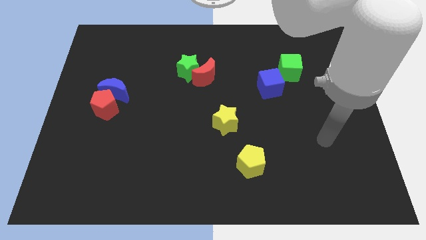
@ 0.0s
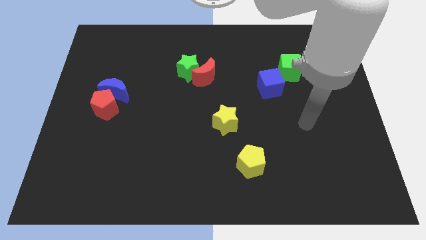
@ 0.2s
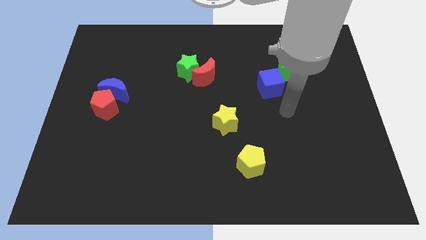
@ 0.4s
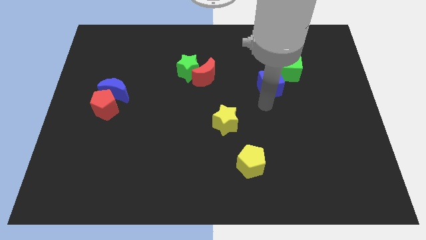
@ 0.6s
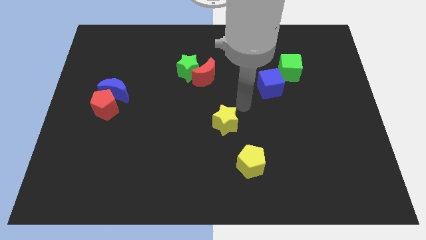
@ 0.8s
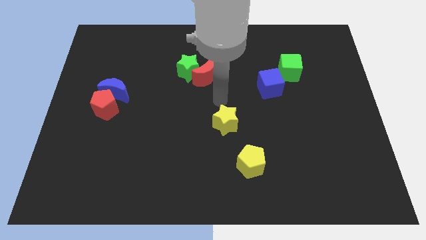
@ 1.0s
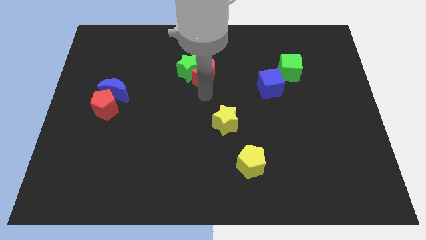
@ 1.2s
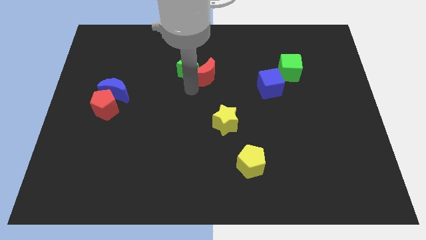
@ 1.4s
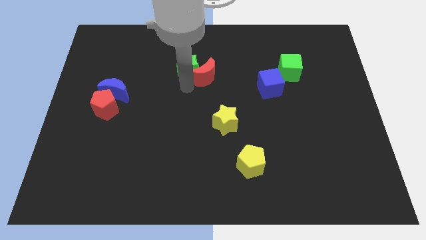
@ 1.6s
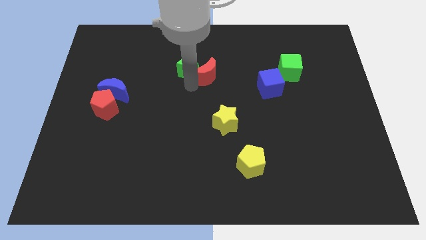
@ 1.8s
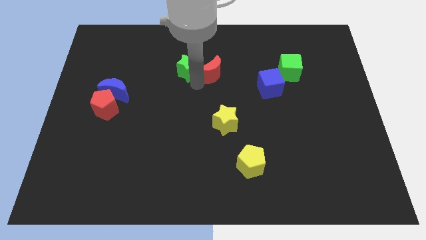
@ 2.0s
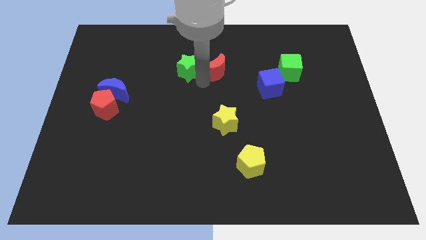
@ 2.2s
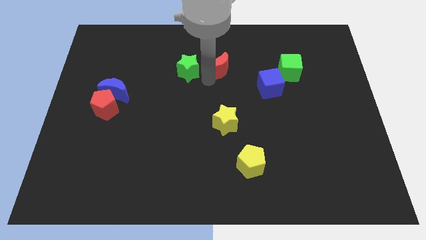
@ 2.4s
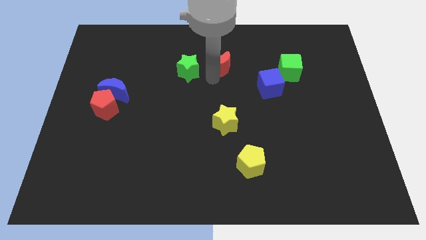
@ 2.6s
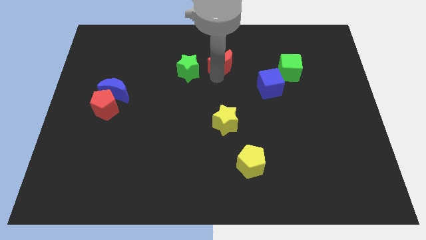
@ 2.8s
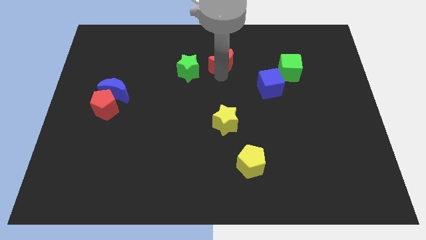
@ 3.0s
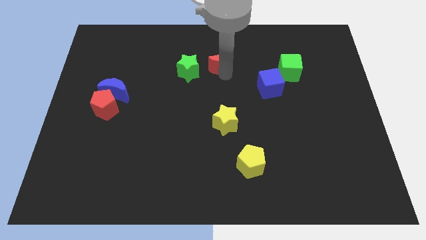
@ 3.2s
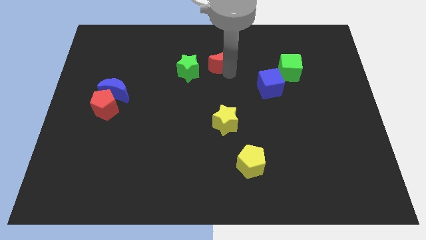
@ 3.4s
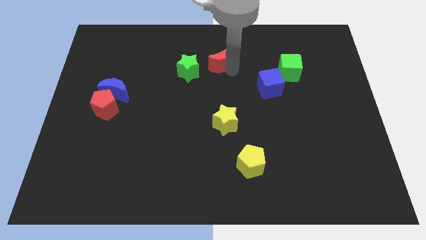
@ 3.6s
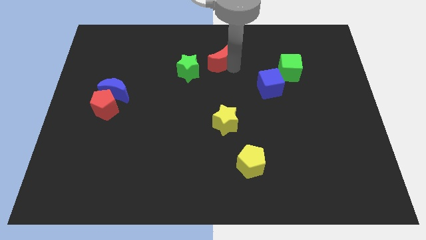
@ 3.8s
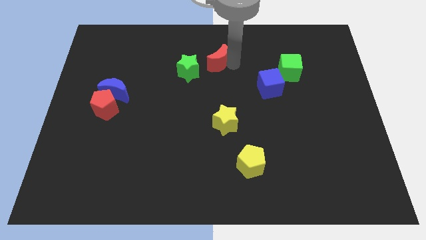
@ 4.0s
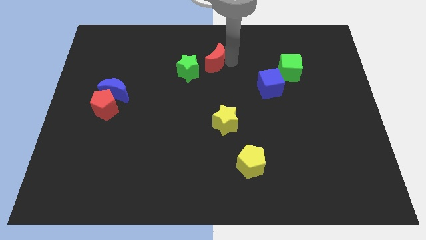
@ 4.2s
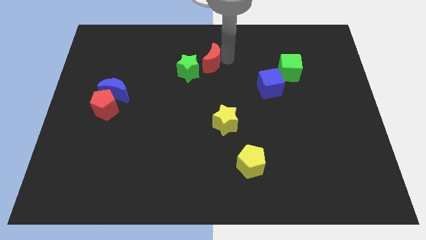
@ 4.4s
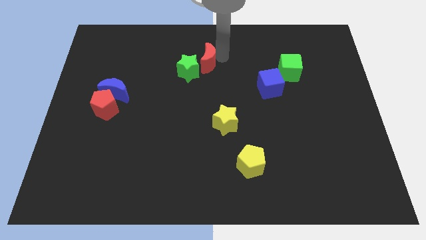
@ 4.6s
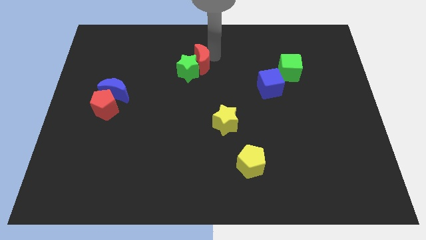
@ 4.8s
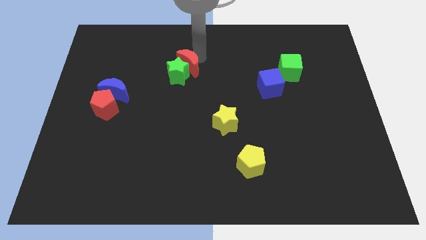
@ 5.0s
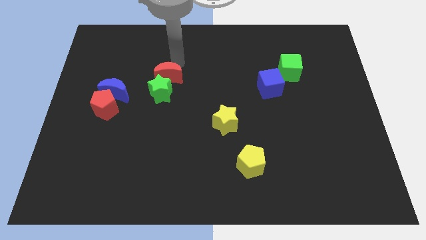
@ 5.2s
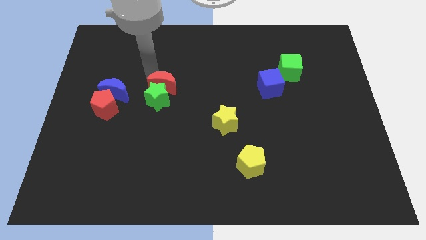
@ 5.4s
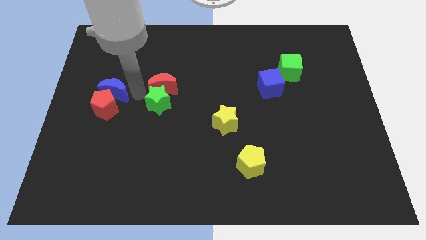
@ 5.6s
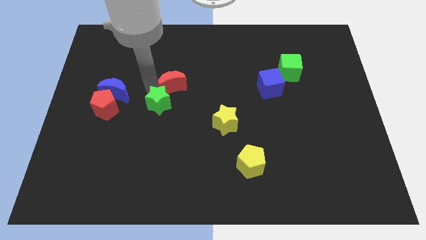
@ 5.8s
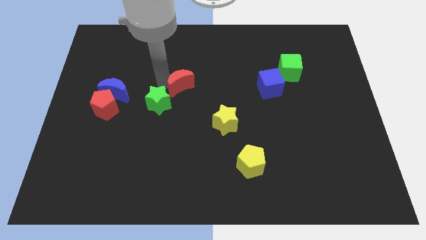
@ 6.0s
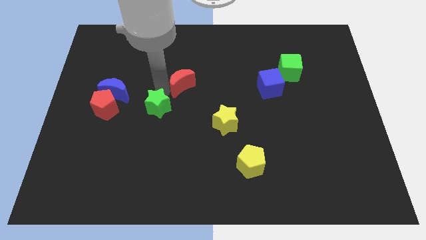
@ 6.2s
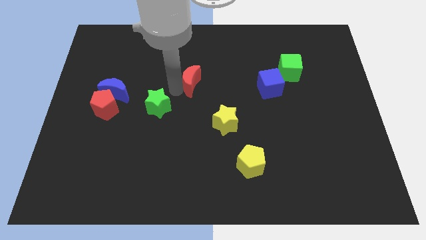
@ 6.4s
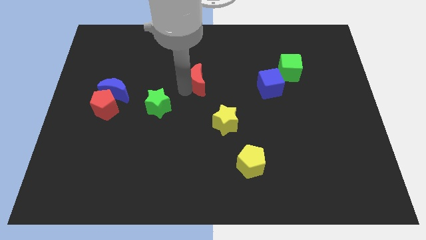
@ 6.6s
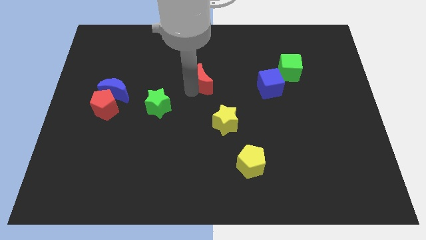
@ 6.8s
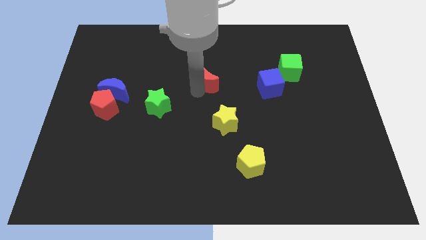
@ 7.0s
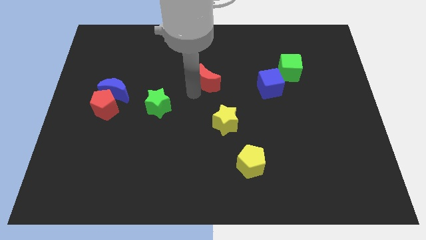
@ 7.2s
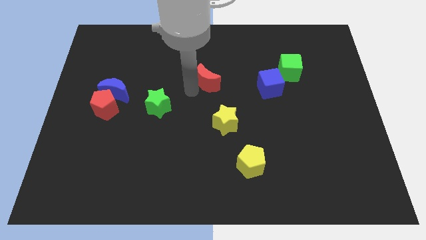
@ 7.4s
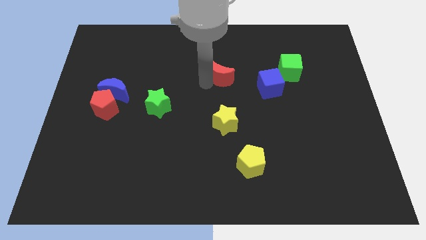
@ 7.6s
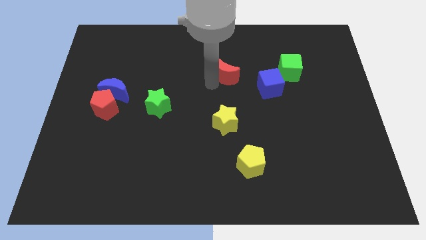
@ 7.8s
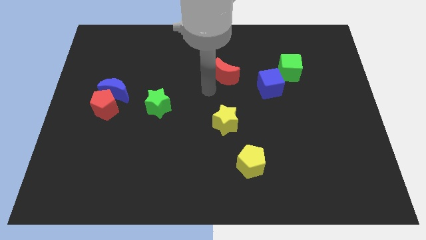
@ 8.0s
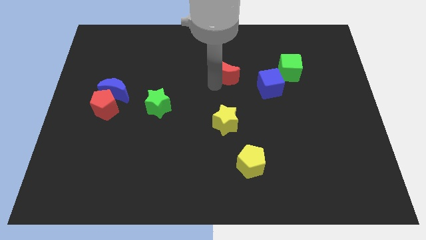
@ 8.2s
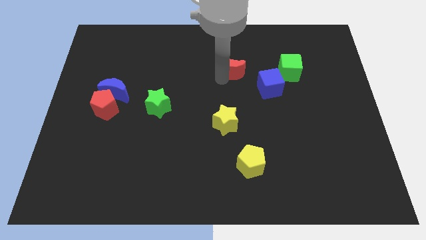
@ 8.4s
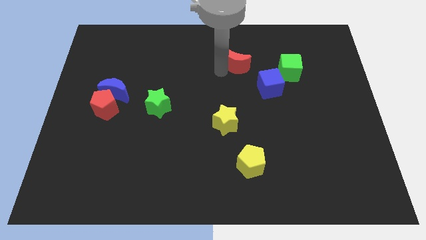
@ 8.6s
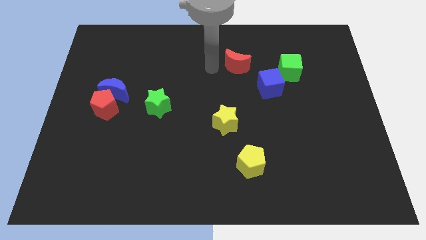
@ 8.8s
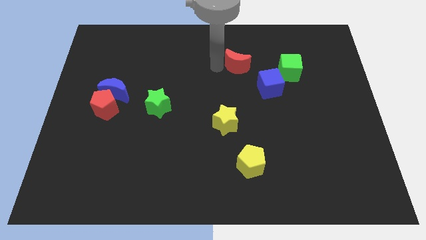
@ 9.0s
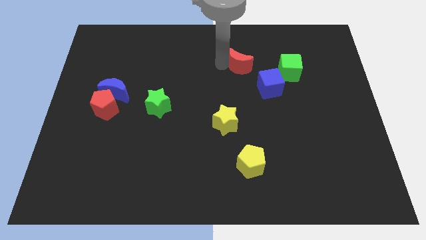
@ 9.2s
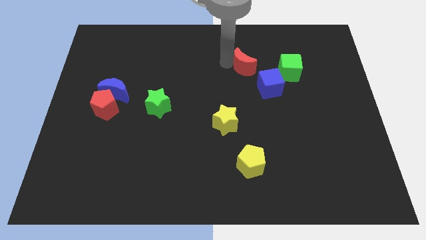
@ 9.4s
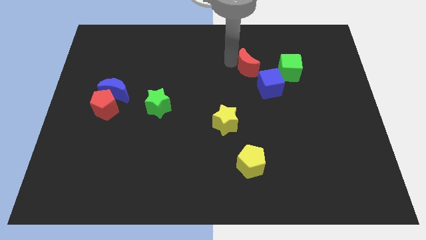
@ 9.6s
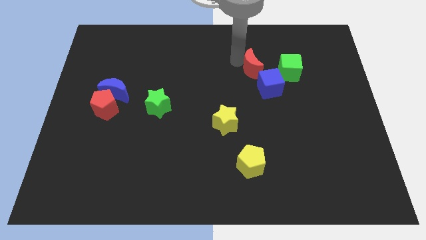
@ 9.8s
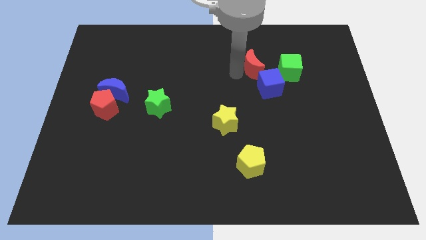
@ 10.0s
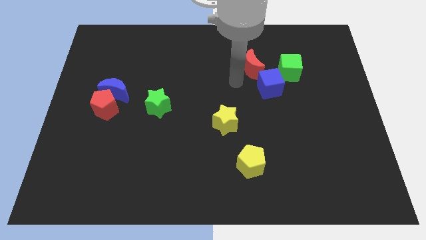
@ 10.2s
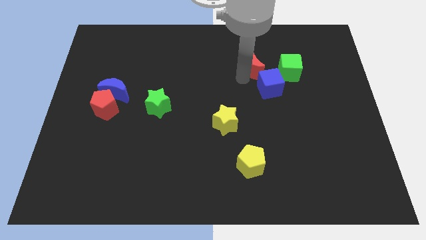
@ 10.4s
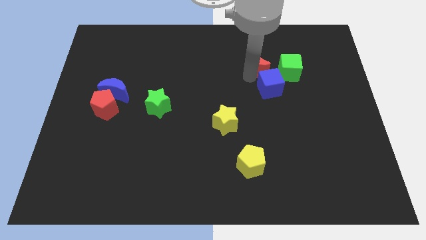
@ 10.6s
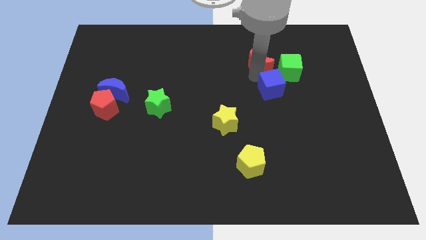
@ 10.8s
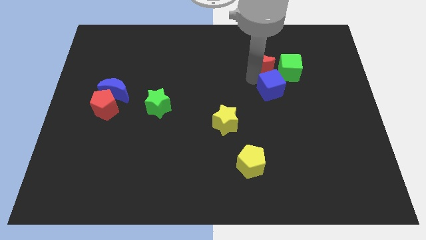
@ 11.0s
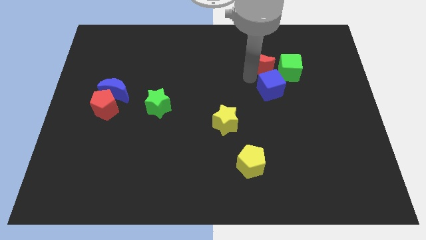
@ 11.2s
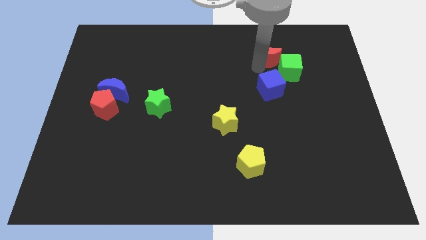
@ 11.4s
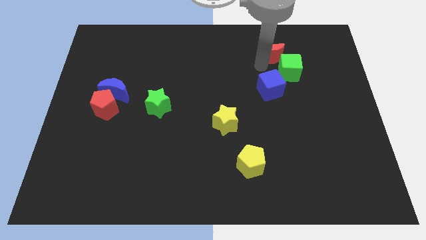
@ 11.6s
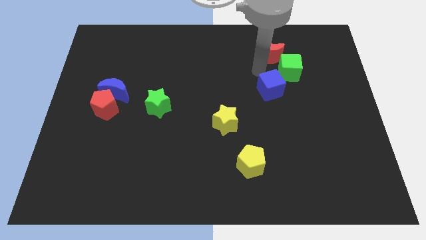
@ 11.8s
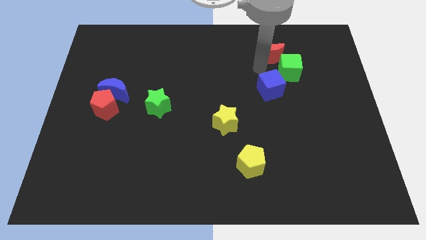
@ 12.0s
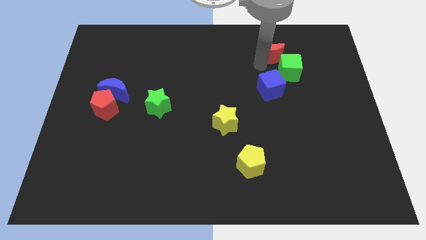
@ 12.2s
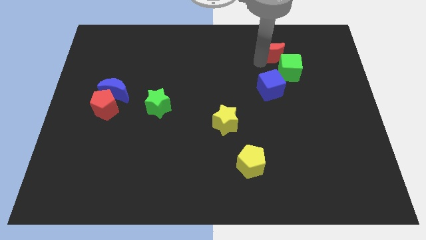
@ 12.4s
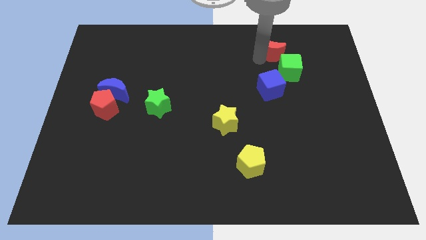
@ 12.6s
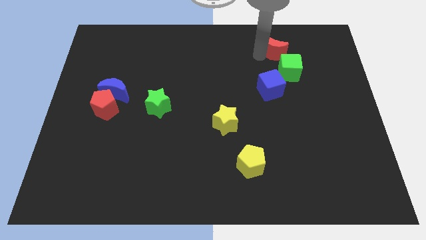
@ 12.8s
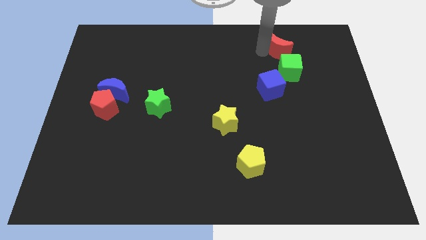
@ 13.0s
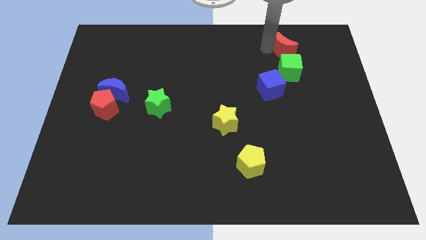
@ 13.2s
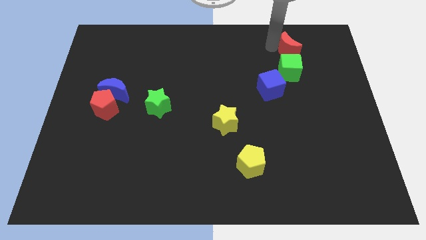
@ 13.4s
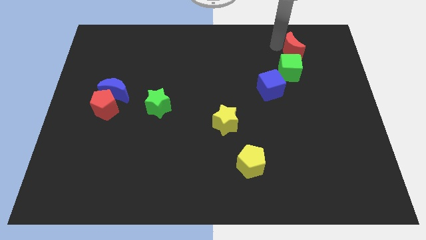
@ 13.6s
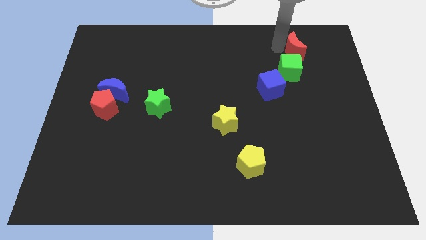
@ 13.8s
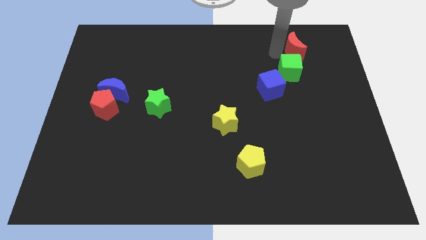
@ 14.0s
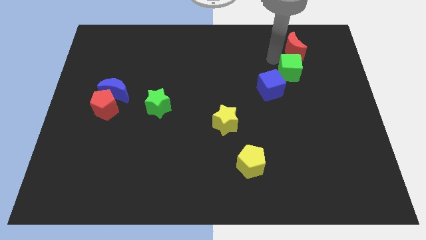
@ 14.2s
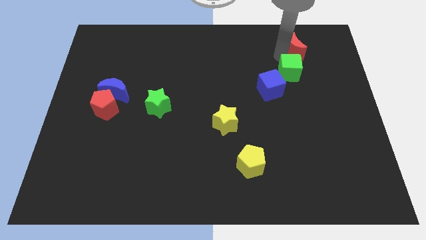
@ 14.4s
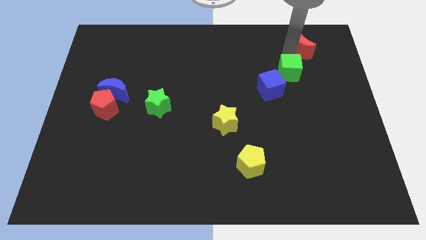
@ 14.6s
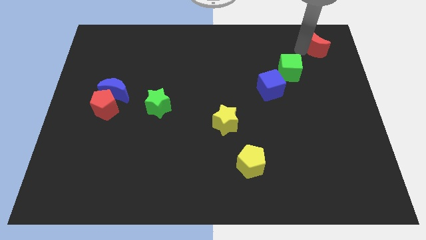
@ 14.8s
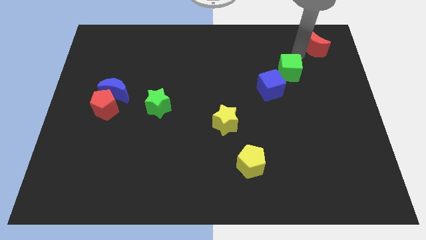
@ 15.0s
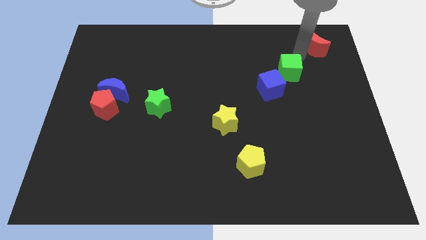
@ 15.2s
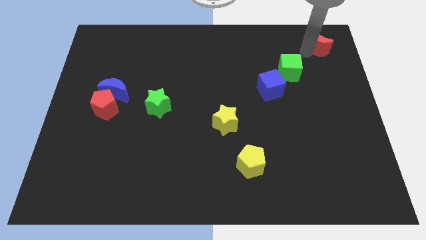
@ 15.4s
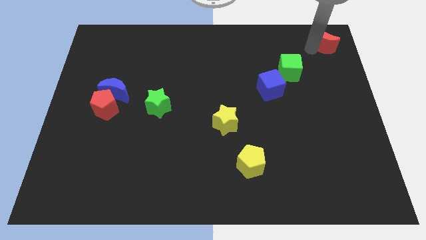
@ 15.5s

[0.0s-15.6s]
push the red moon to the top right
